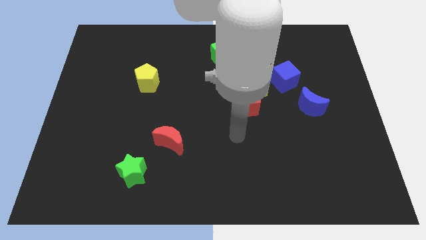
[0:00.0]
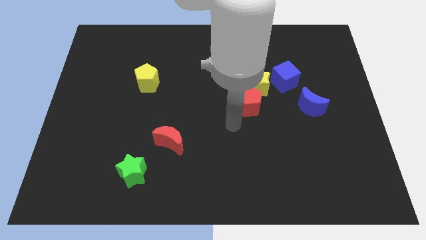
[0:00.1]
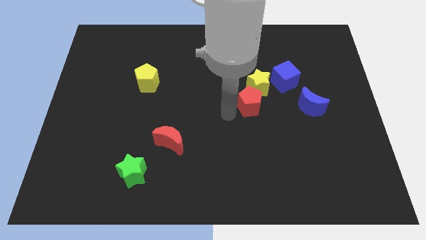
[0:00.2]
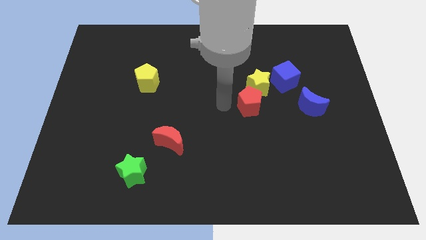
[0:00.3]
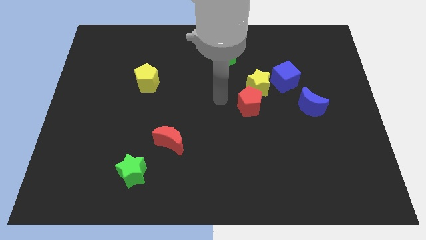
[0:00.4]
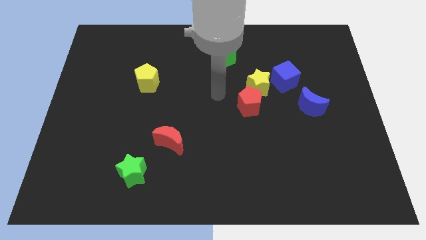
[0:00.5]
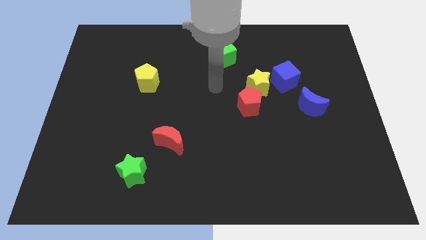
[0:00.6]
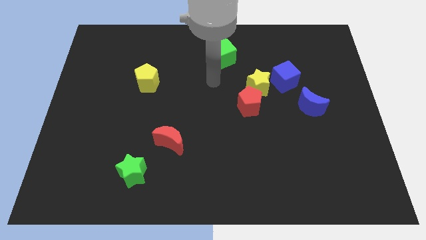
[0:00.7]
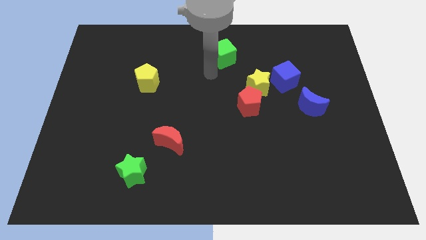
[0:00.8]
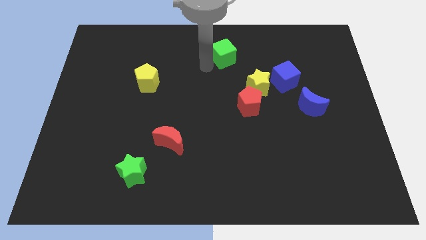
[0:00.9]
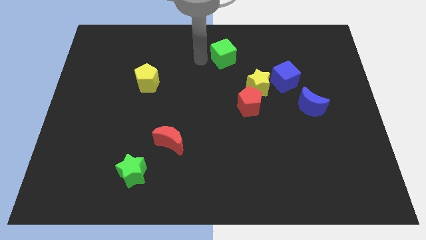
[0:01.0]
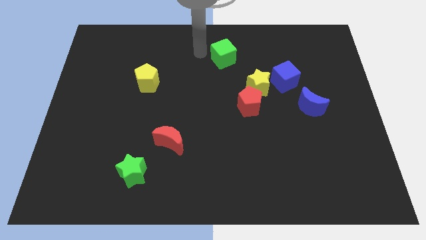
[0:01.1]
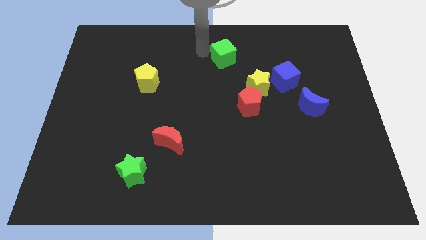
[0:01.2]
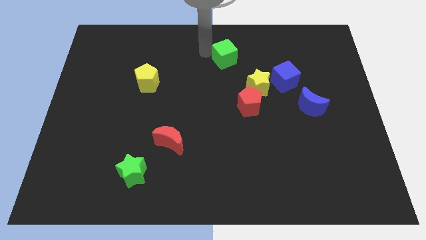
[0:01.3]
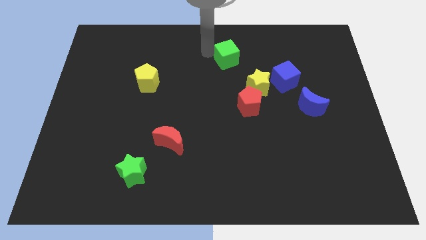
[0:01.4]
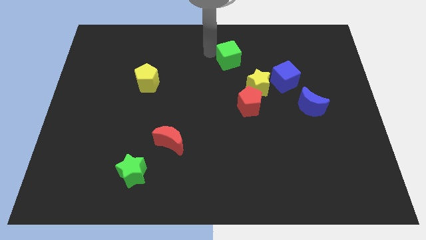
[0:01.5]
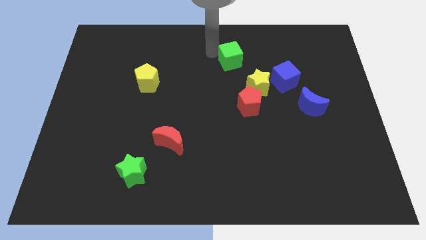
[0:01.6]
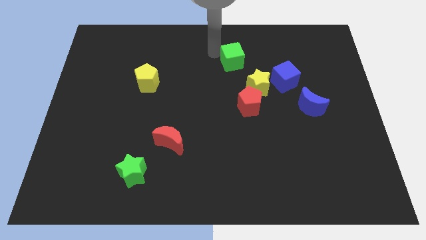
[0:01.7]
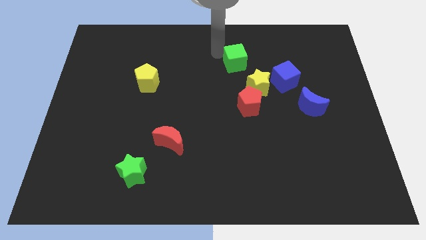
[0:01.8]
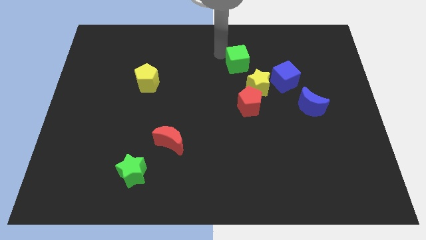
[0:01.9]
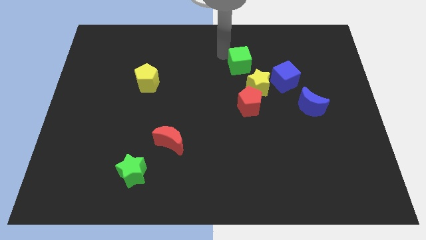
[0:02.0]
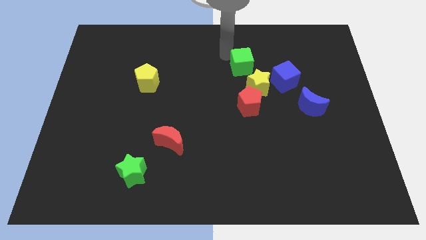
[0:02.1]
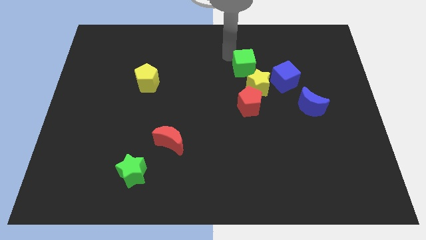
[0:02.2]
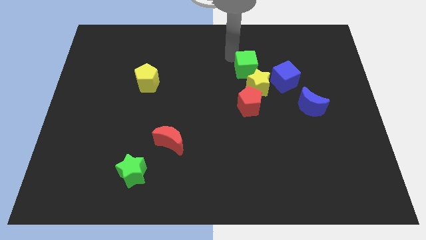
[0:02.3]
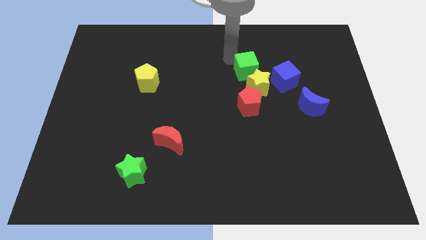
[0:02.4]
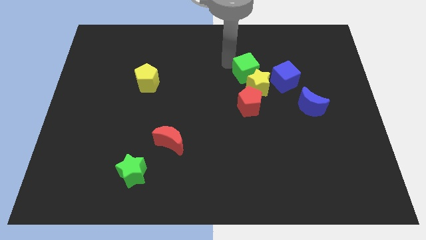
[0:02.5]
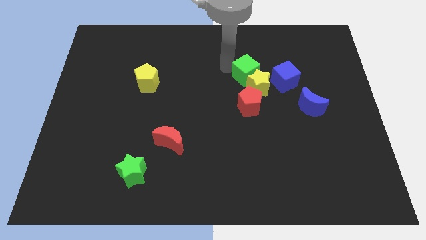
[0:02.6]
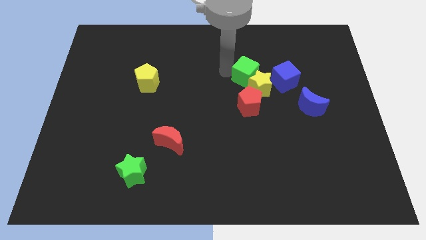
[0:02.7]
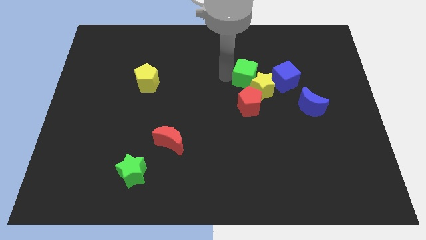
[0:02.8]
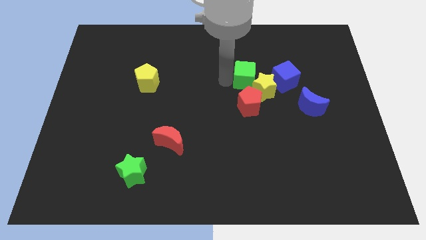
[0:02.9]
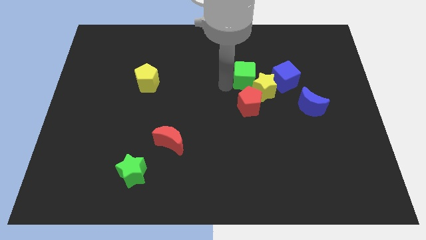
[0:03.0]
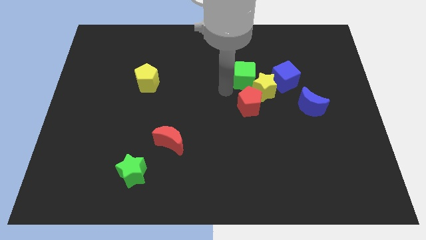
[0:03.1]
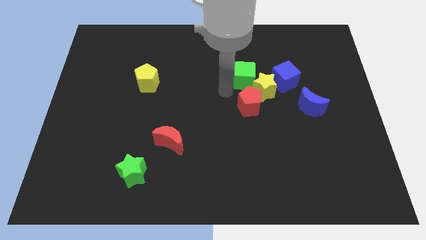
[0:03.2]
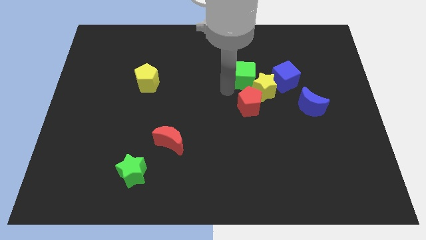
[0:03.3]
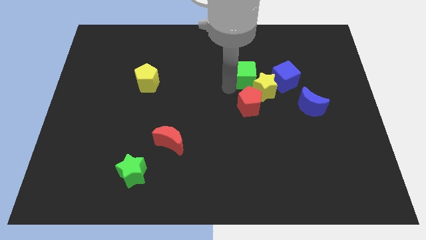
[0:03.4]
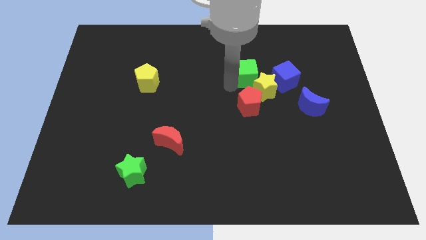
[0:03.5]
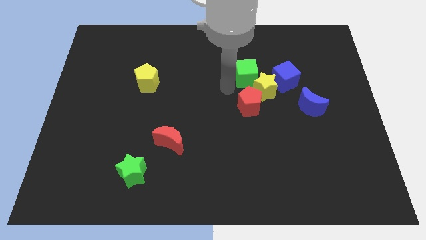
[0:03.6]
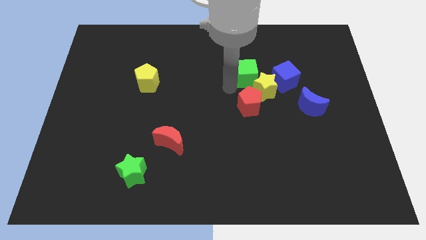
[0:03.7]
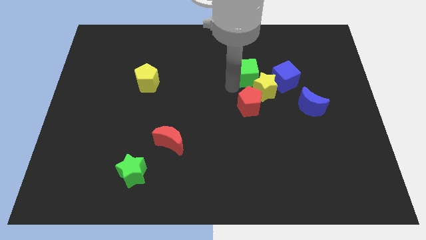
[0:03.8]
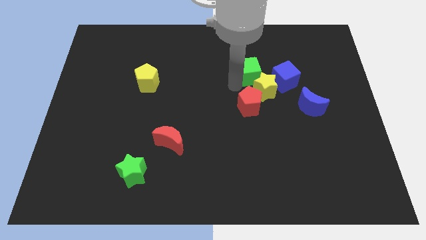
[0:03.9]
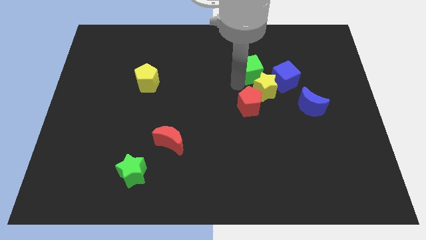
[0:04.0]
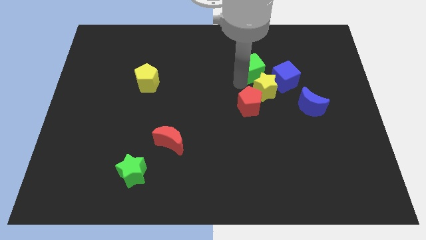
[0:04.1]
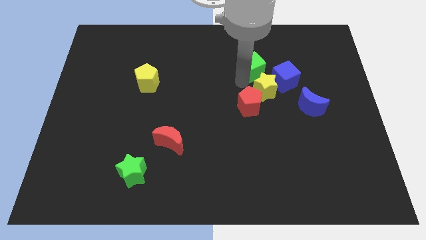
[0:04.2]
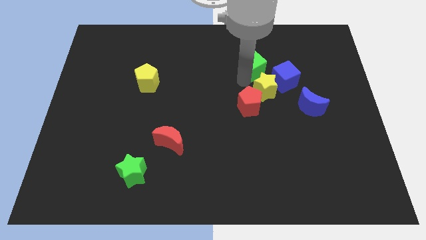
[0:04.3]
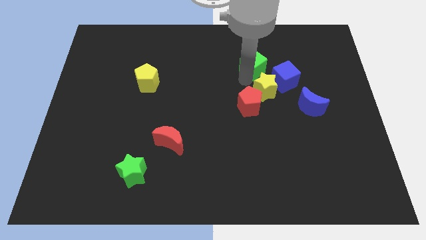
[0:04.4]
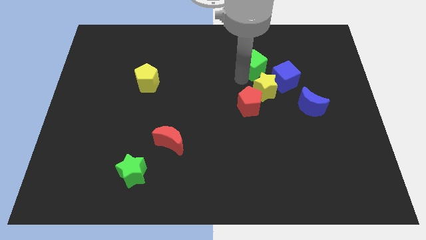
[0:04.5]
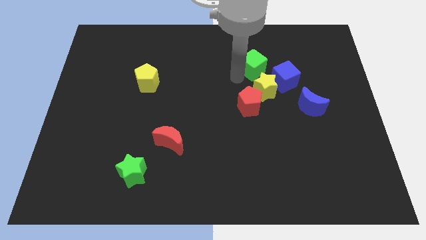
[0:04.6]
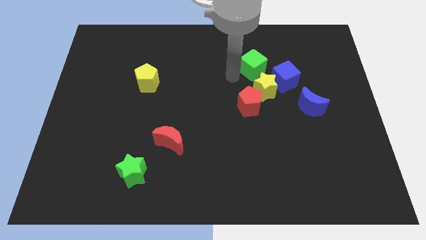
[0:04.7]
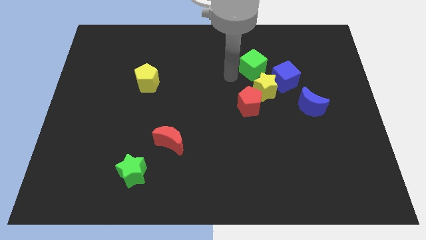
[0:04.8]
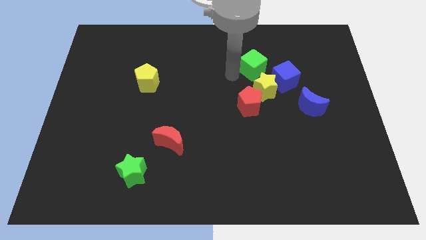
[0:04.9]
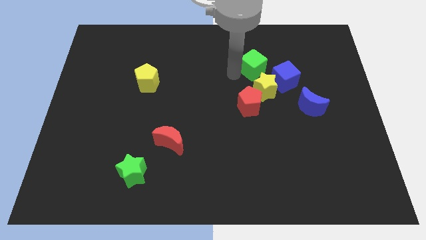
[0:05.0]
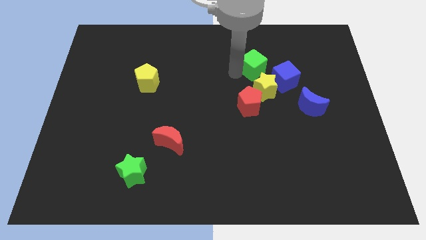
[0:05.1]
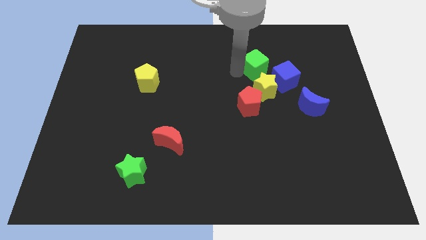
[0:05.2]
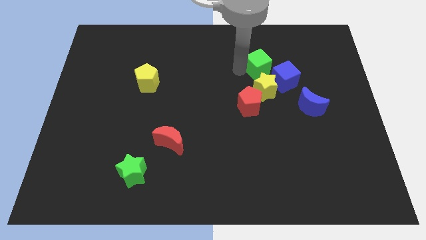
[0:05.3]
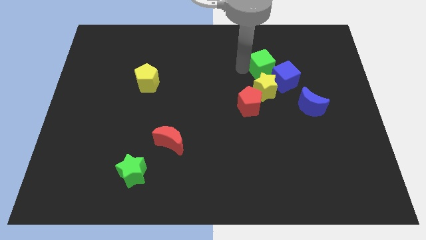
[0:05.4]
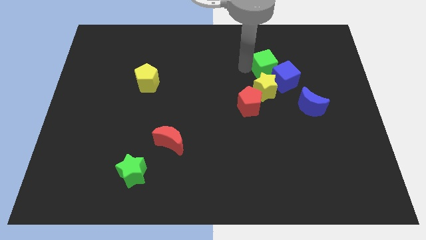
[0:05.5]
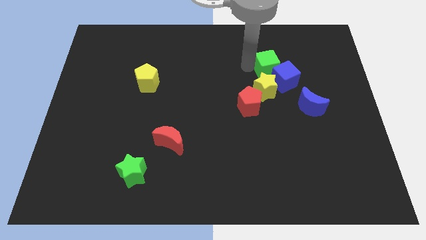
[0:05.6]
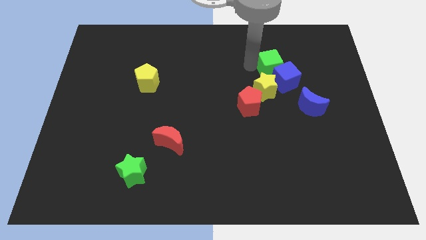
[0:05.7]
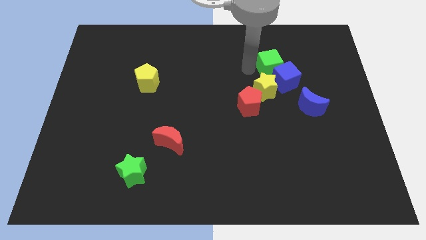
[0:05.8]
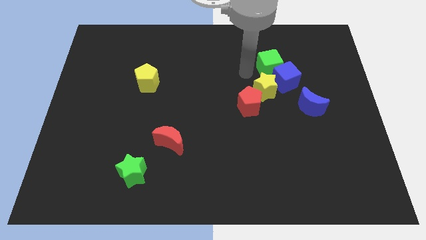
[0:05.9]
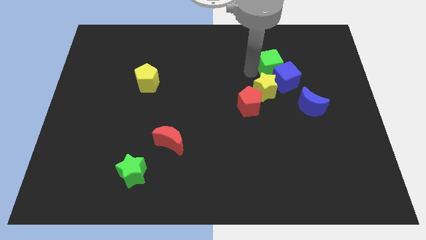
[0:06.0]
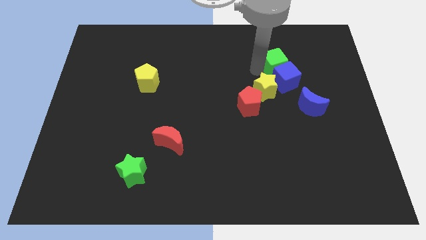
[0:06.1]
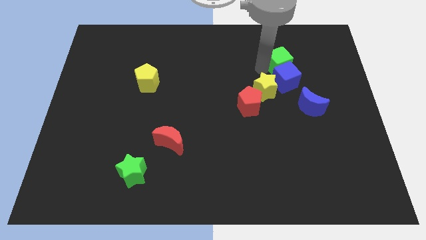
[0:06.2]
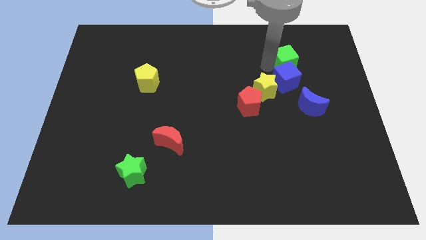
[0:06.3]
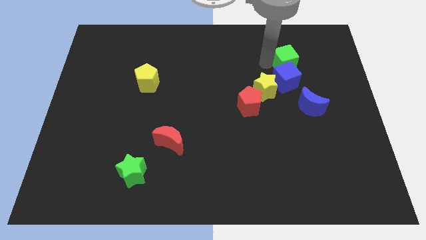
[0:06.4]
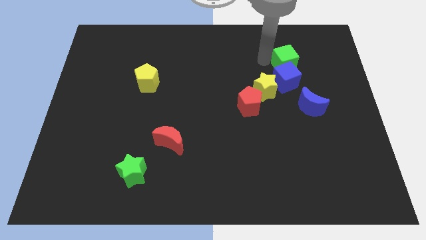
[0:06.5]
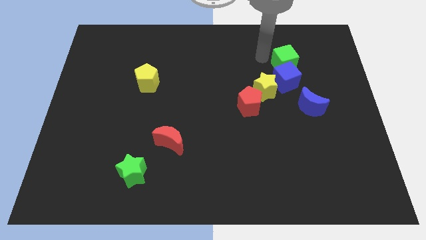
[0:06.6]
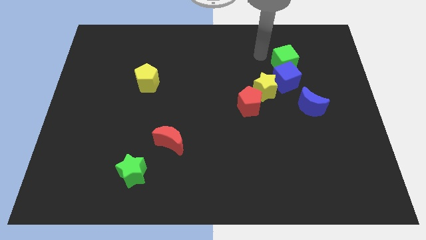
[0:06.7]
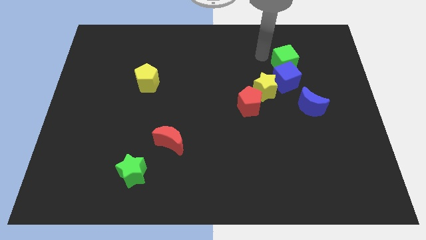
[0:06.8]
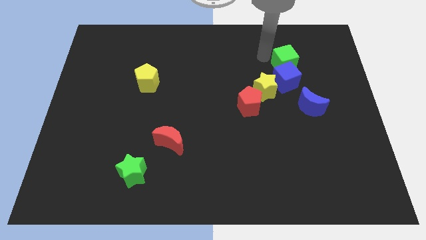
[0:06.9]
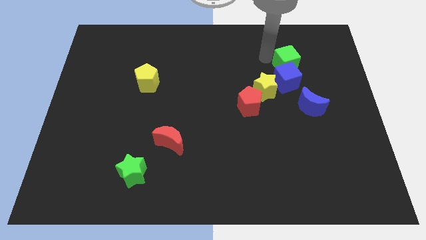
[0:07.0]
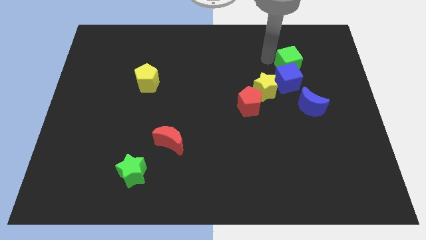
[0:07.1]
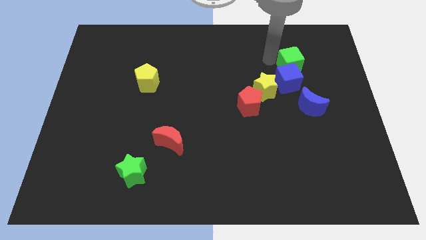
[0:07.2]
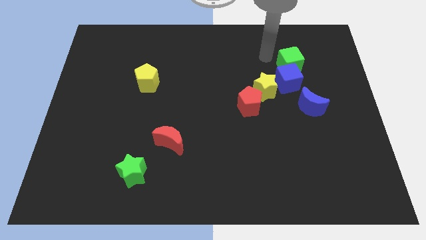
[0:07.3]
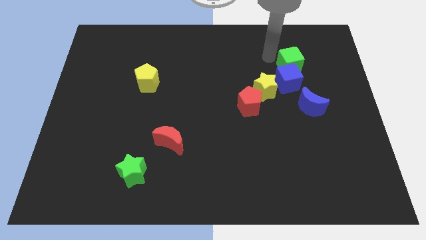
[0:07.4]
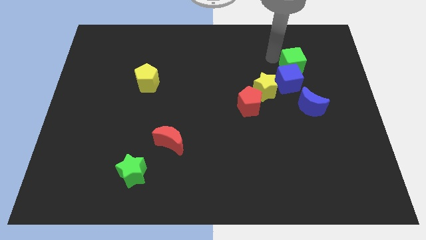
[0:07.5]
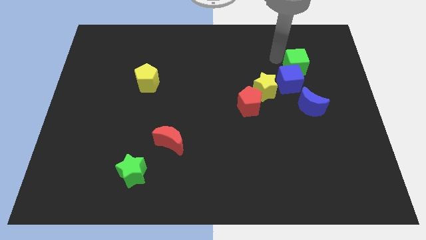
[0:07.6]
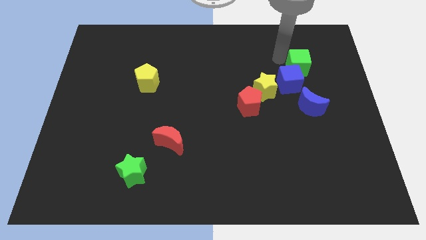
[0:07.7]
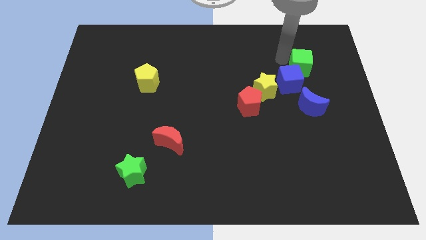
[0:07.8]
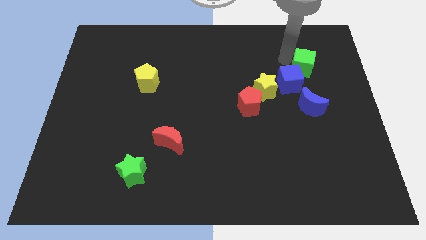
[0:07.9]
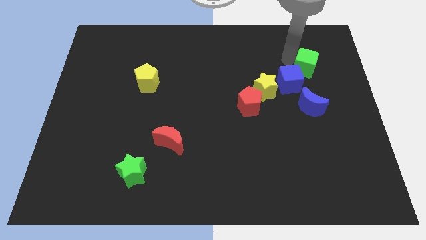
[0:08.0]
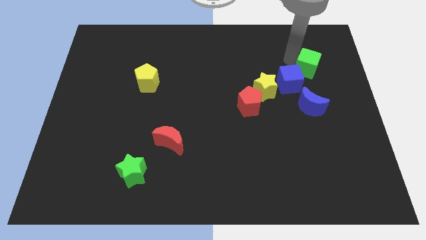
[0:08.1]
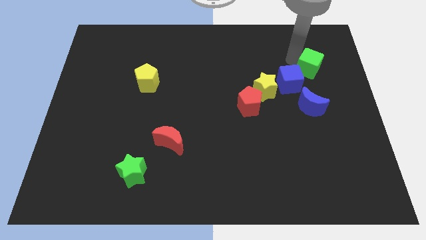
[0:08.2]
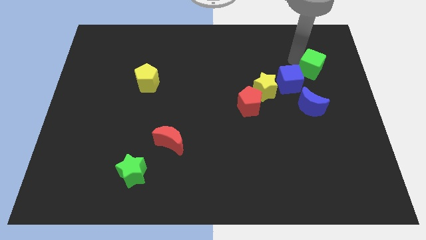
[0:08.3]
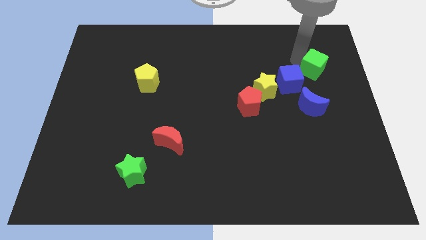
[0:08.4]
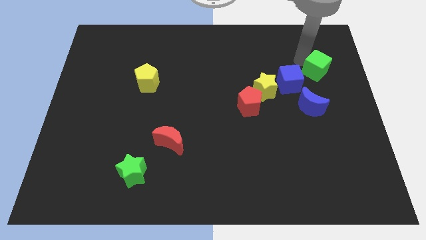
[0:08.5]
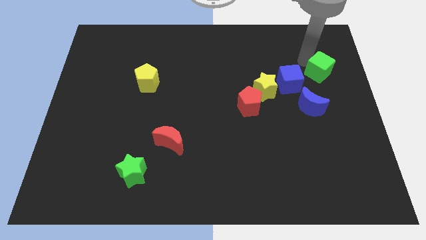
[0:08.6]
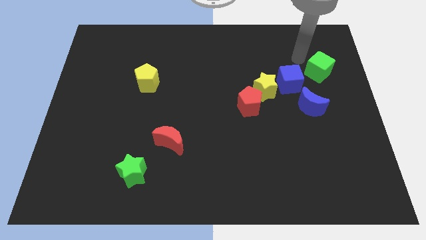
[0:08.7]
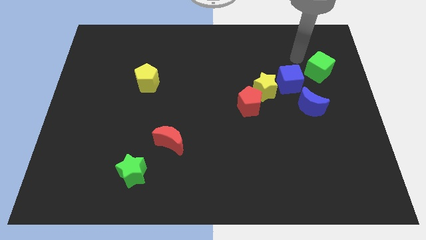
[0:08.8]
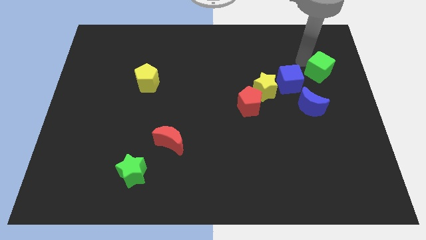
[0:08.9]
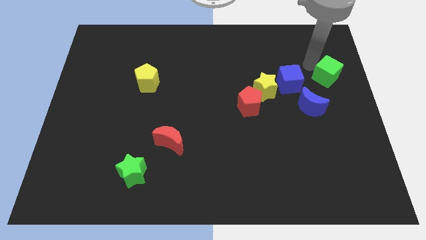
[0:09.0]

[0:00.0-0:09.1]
push the green cube to the right side of the board
